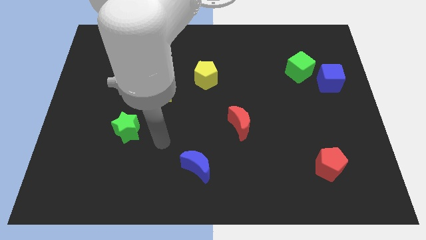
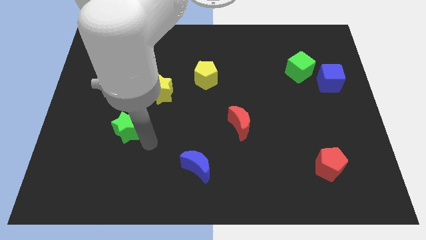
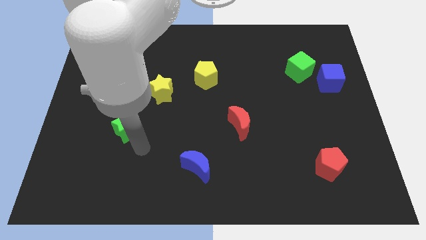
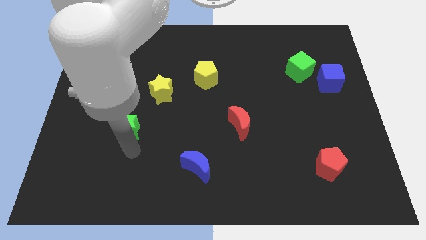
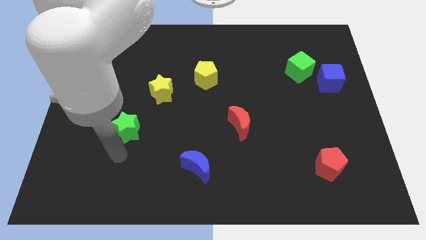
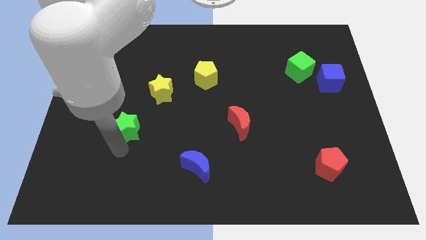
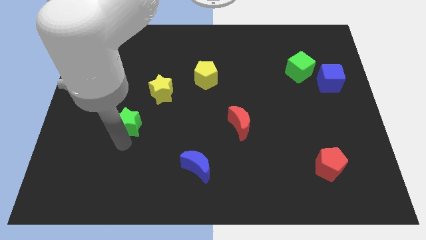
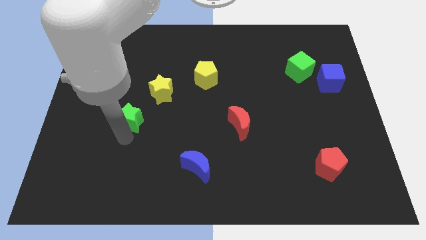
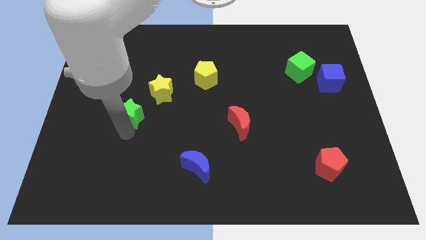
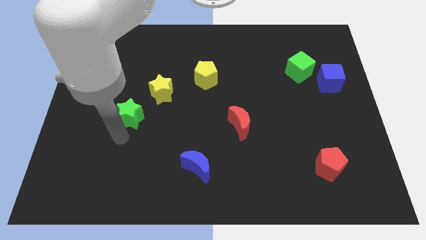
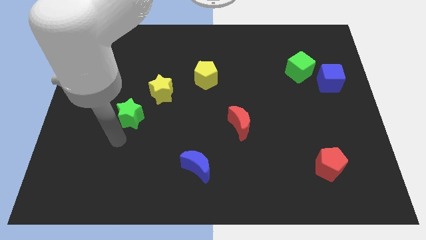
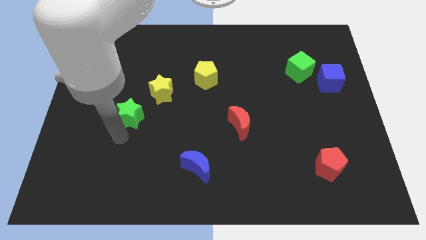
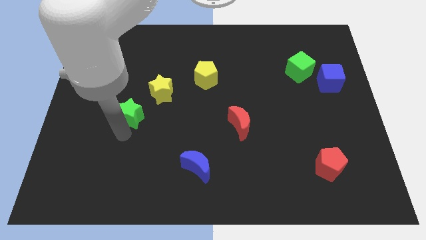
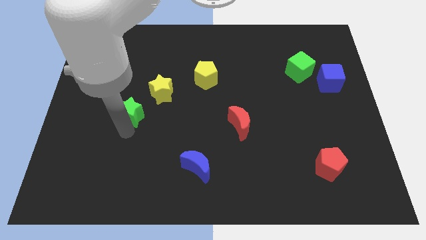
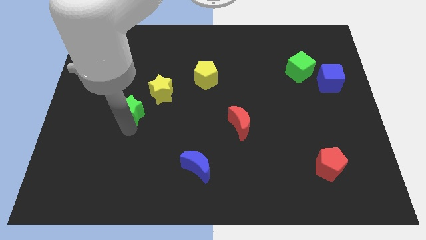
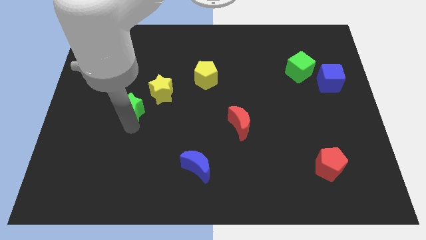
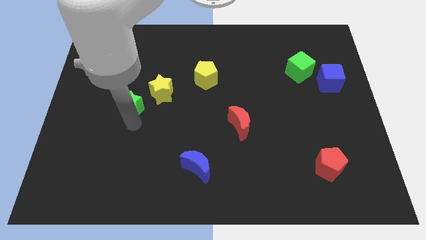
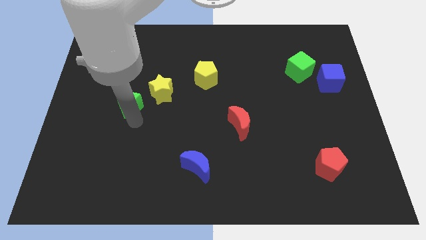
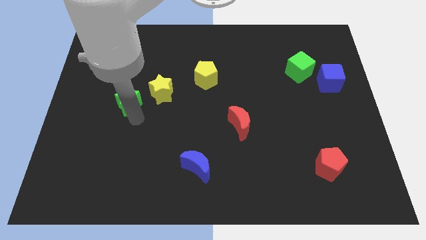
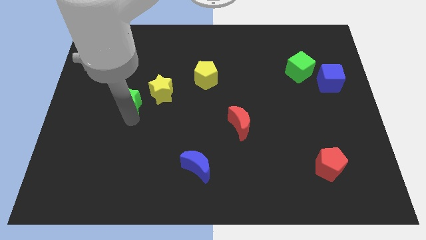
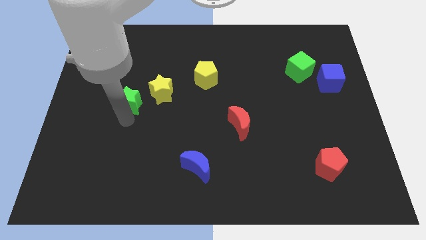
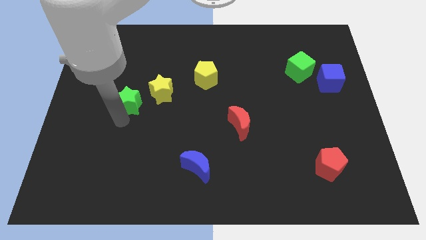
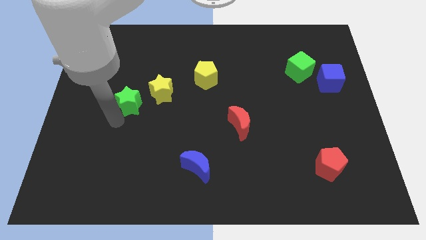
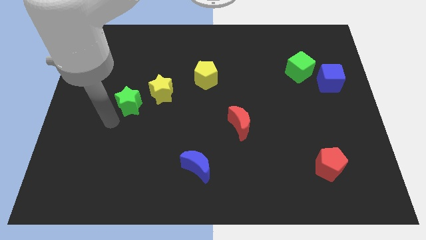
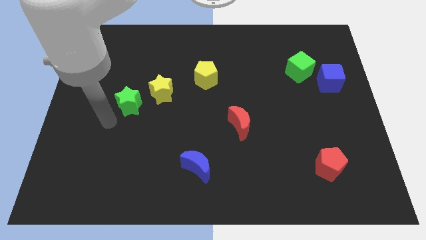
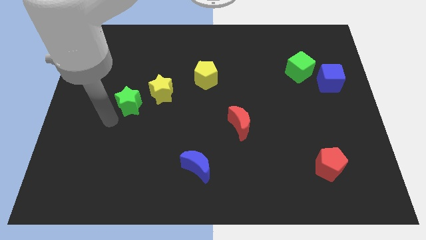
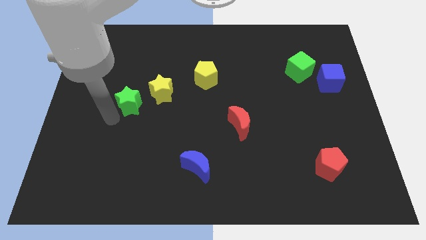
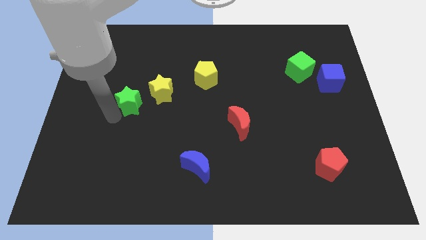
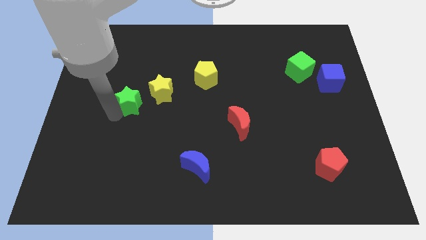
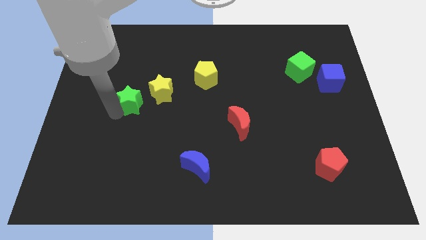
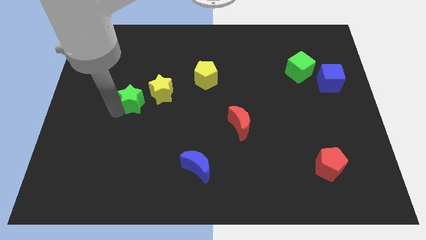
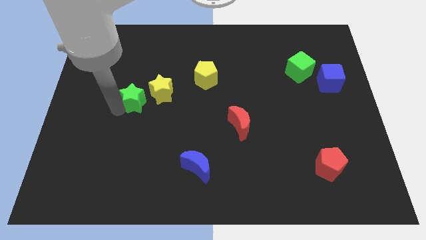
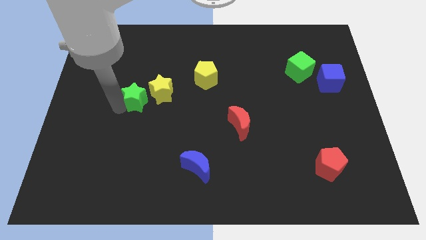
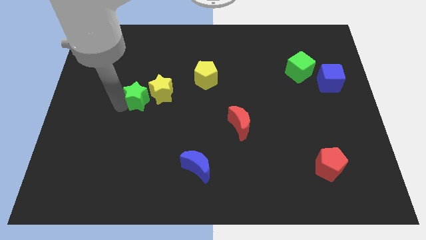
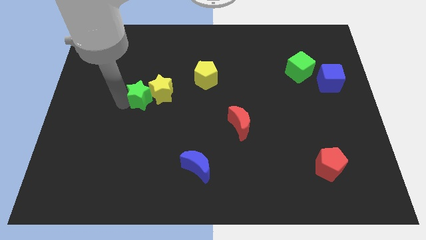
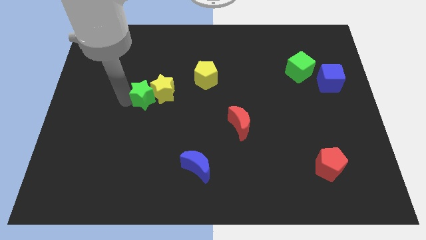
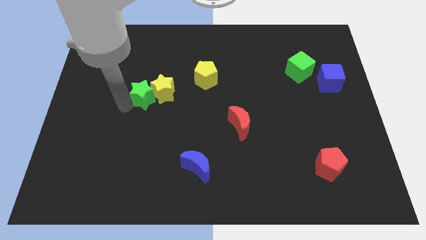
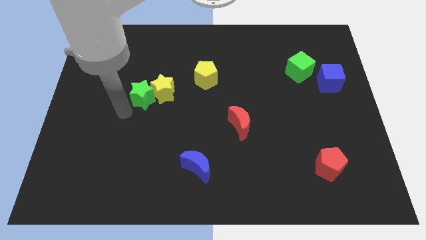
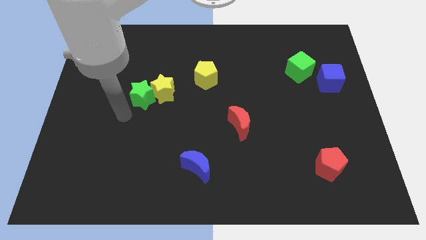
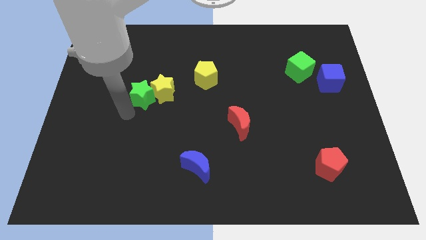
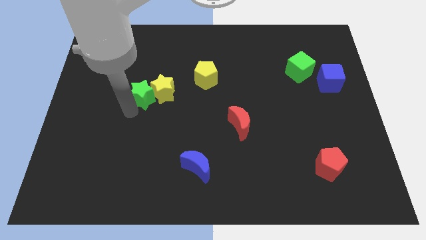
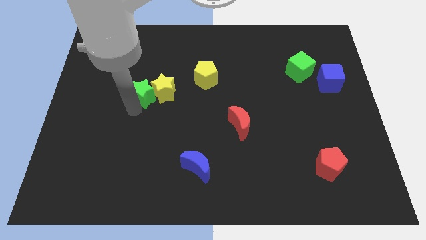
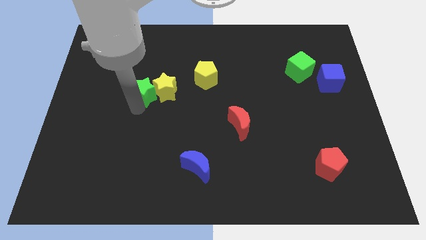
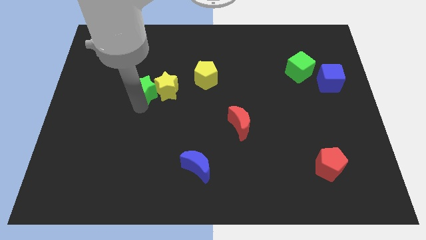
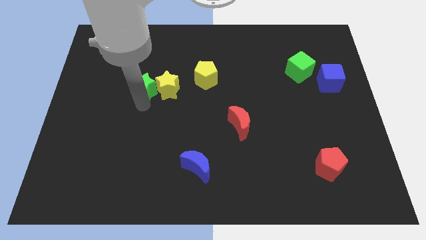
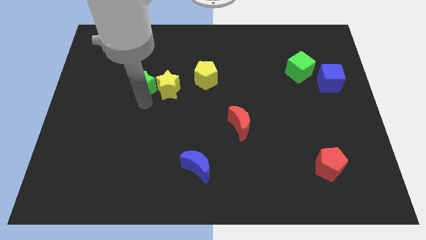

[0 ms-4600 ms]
slide the green star just left of the yellow pentagon

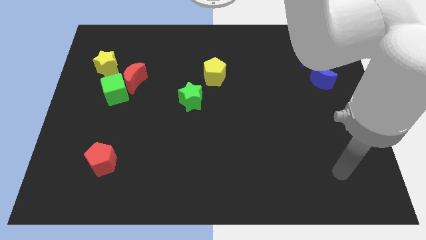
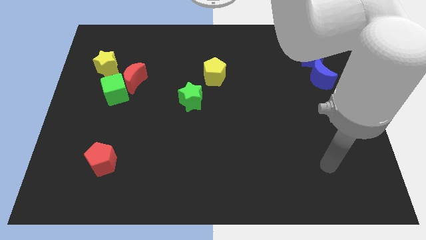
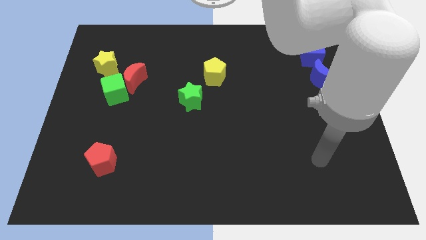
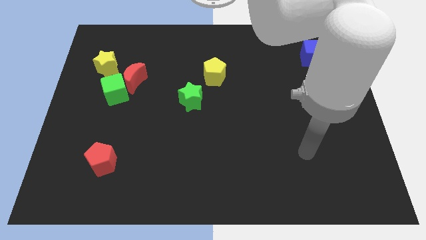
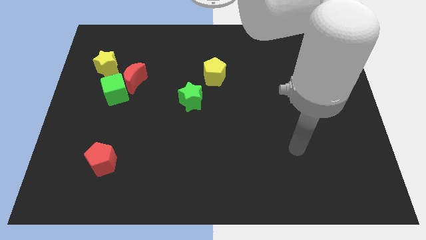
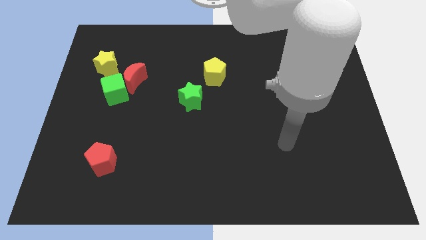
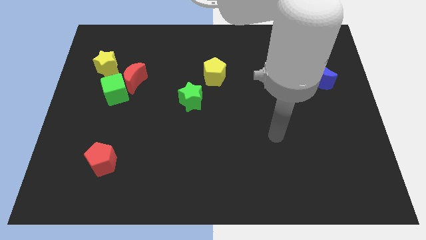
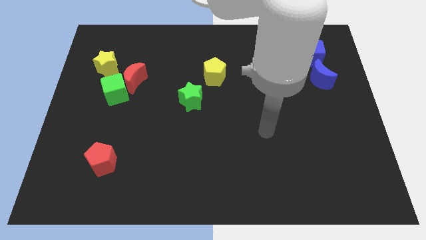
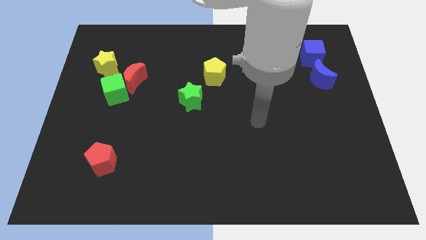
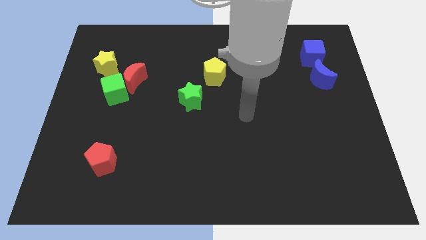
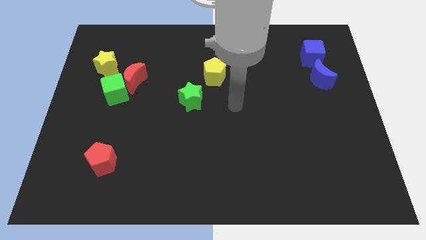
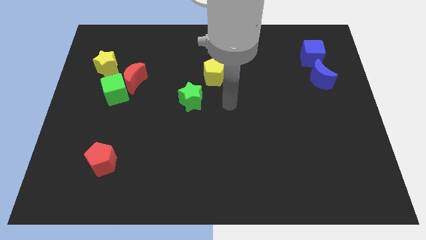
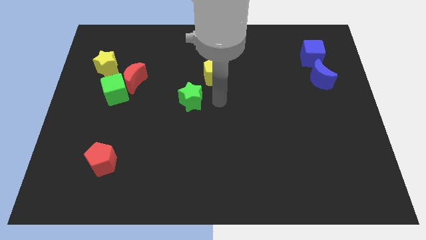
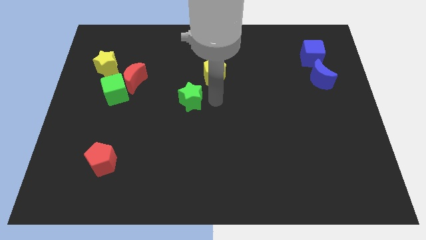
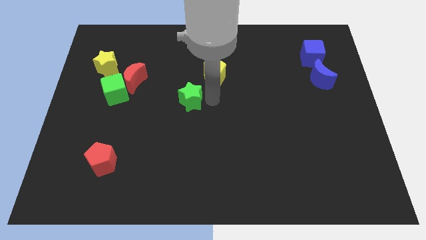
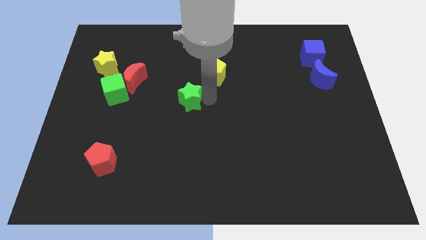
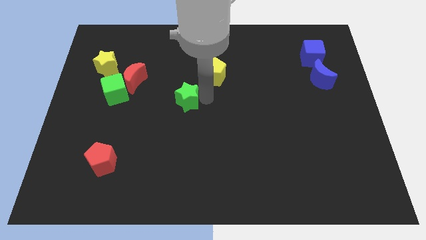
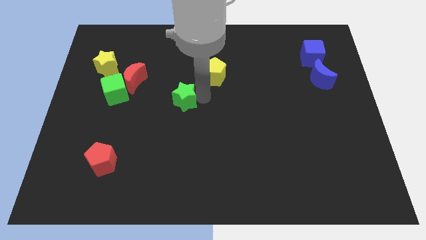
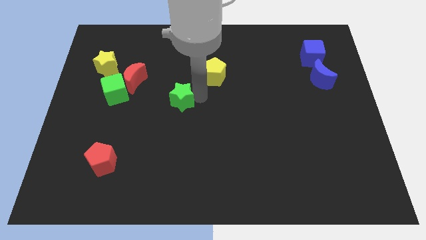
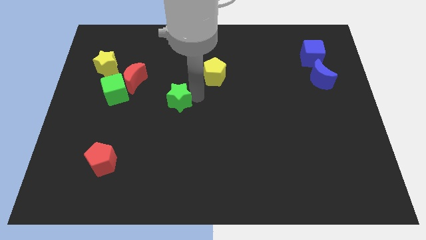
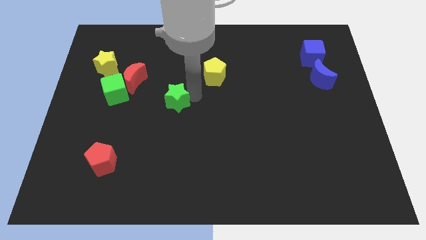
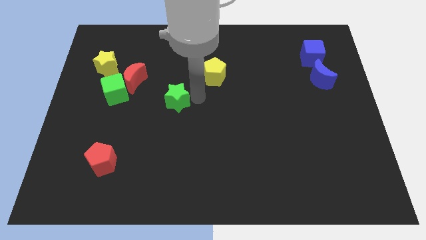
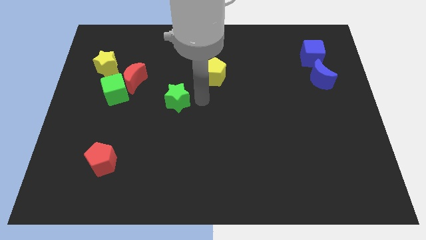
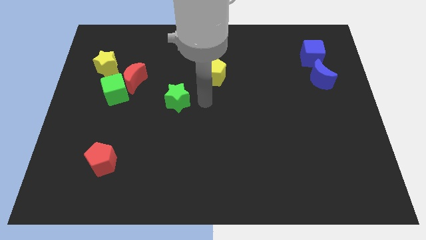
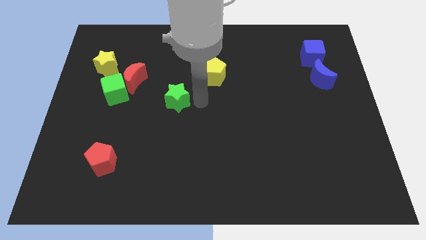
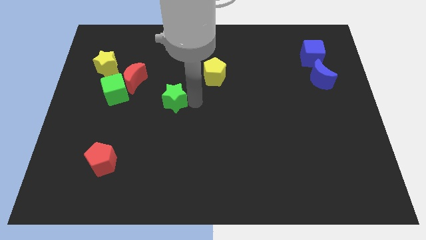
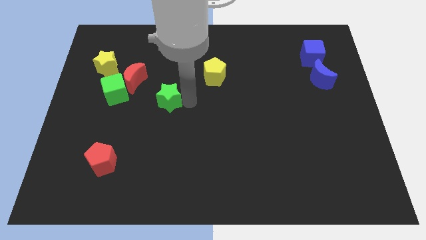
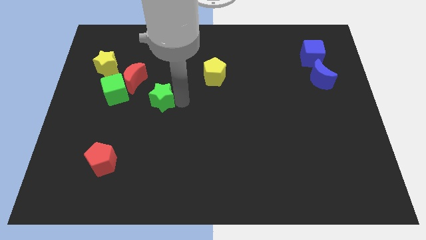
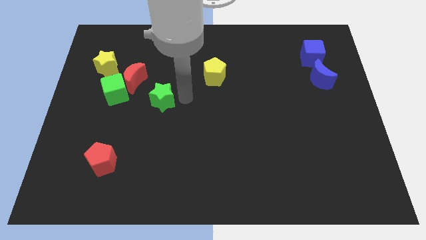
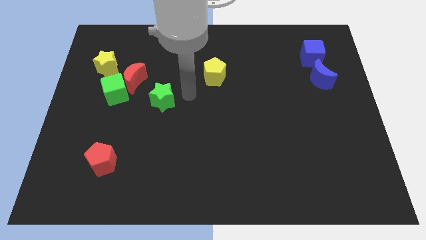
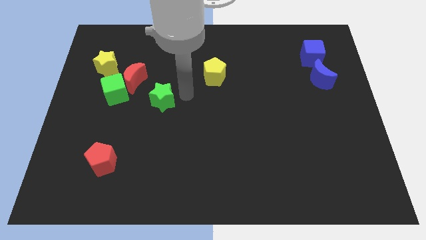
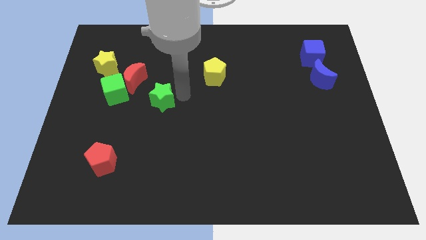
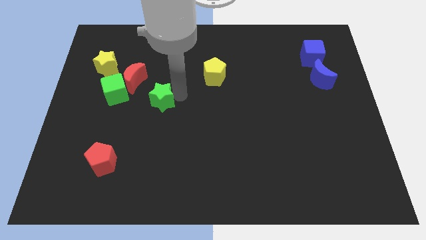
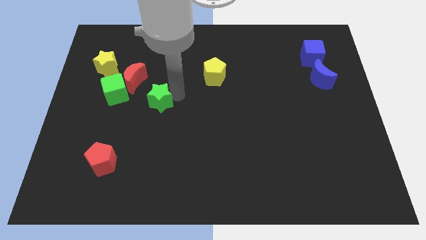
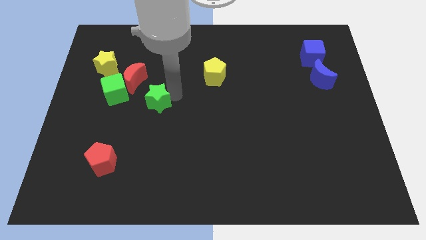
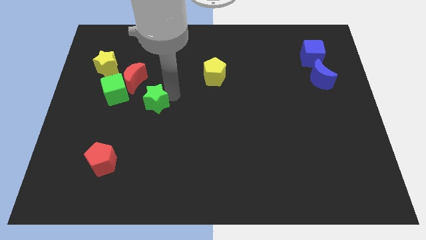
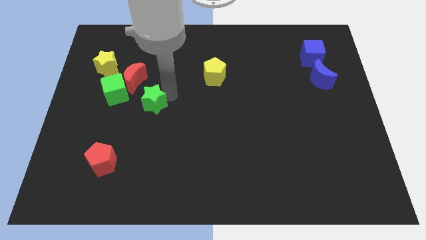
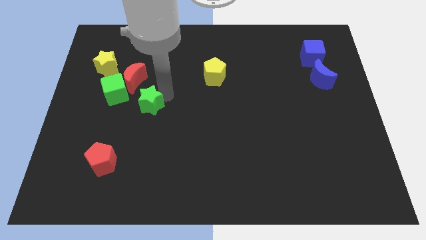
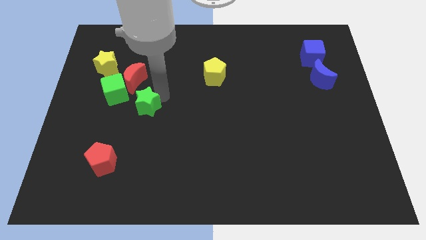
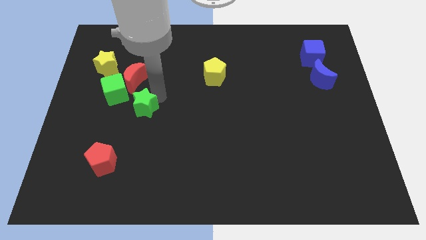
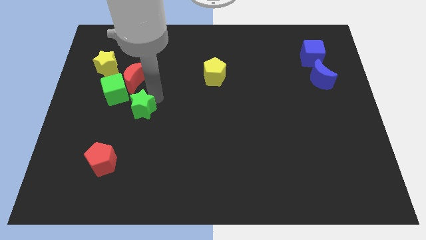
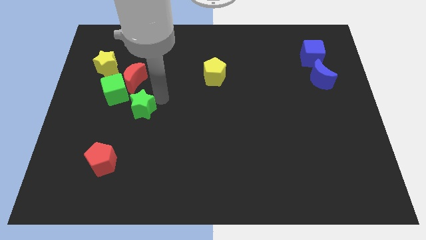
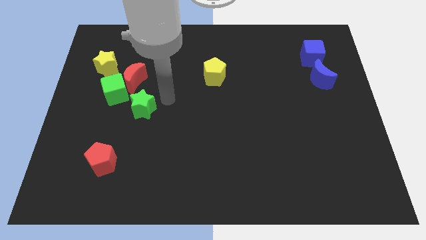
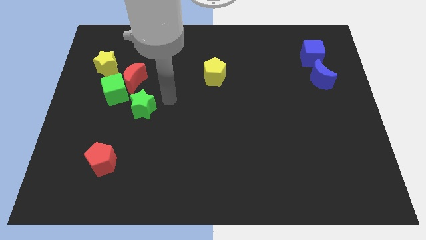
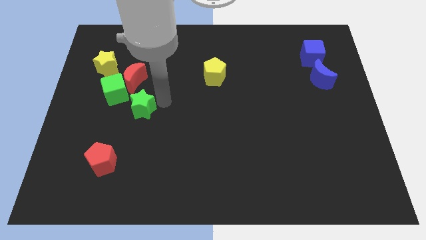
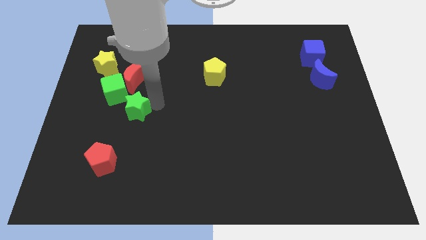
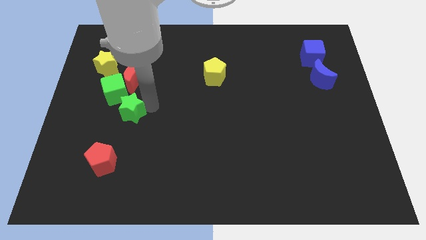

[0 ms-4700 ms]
slide the green star to the bottom of the green cube
